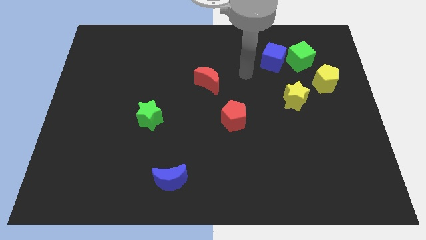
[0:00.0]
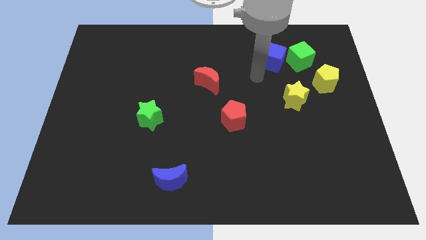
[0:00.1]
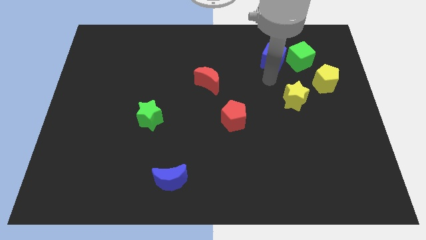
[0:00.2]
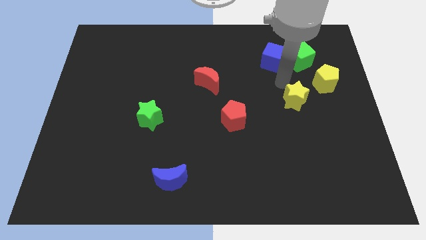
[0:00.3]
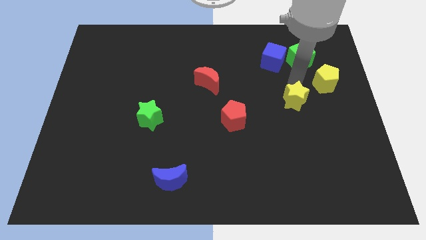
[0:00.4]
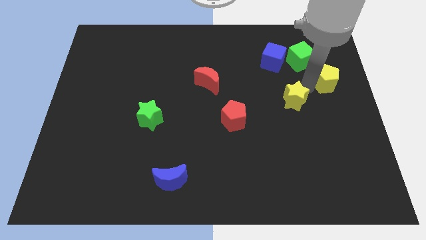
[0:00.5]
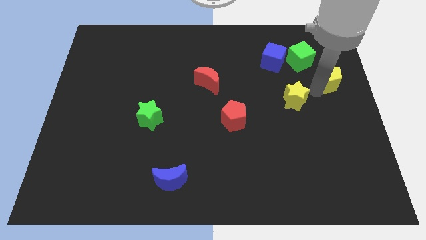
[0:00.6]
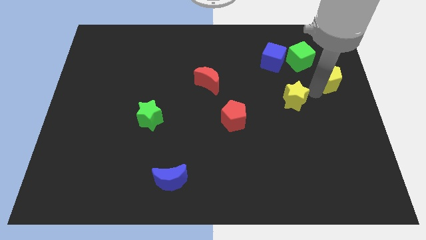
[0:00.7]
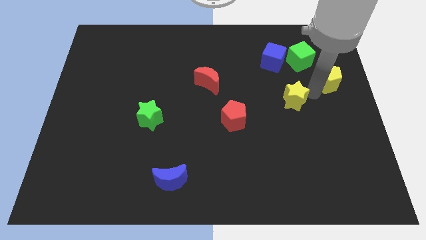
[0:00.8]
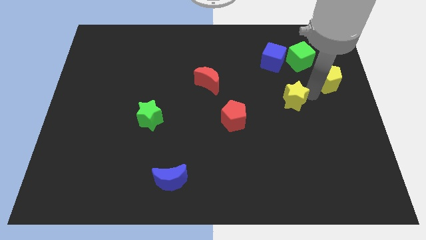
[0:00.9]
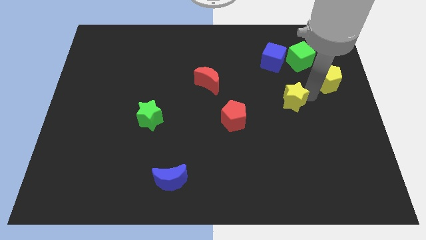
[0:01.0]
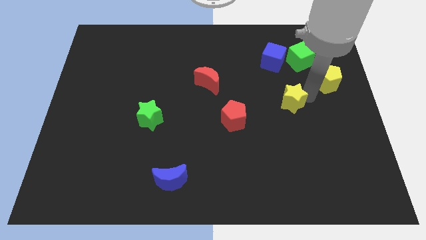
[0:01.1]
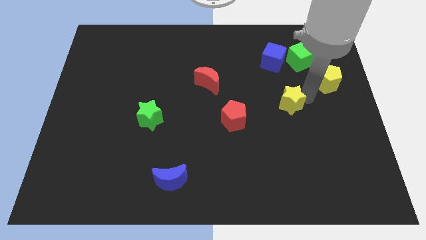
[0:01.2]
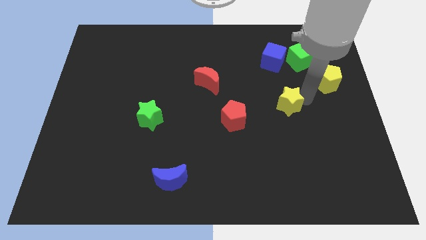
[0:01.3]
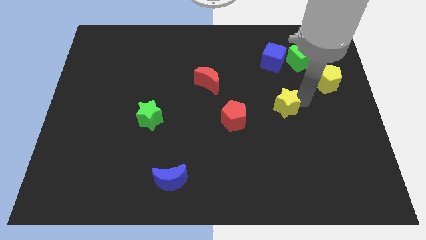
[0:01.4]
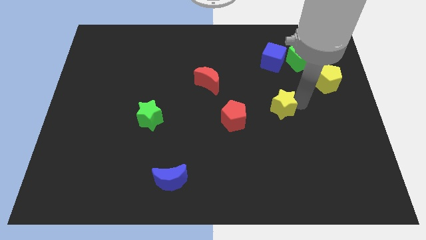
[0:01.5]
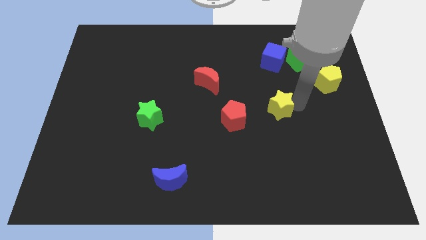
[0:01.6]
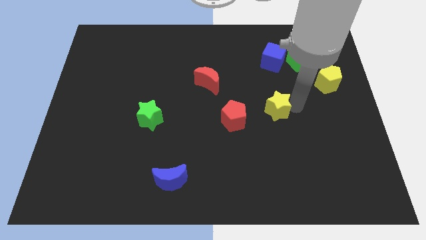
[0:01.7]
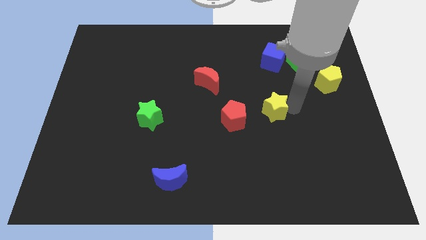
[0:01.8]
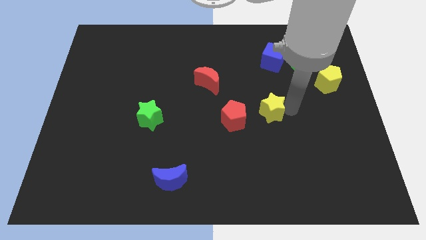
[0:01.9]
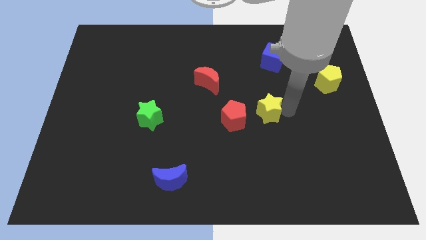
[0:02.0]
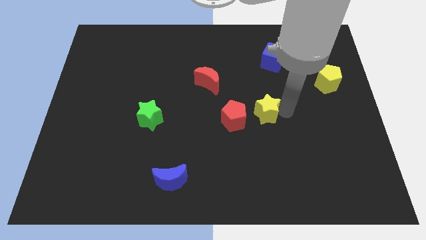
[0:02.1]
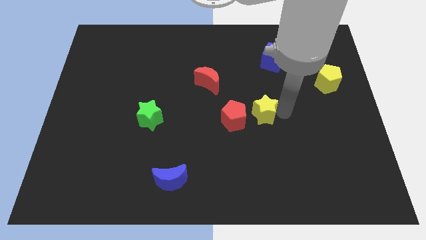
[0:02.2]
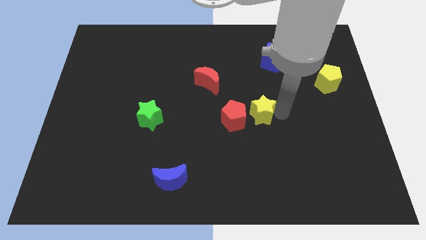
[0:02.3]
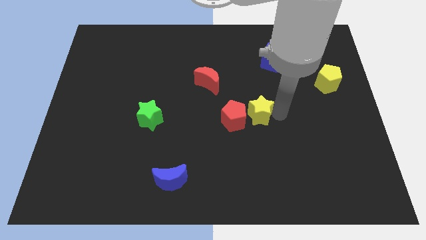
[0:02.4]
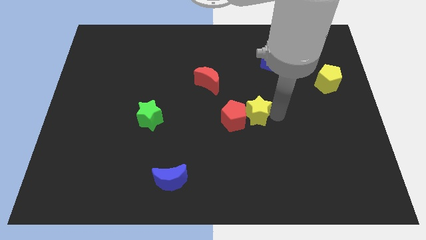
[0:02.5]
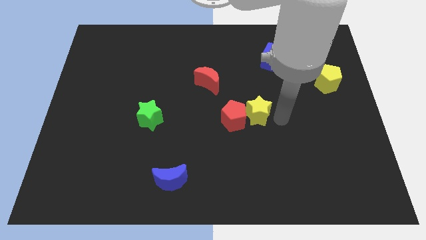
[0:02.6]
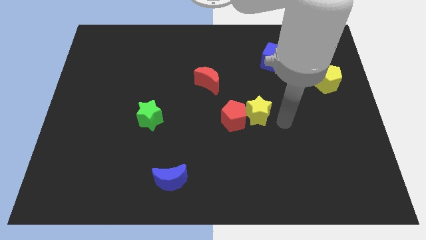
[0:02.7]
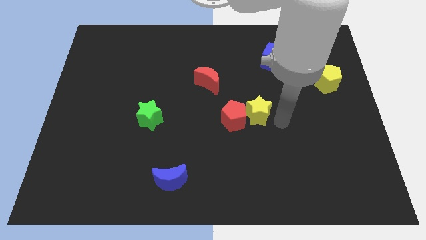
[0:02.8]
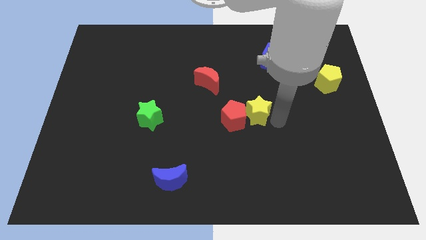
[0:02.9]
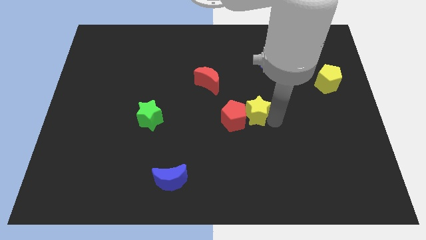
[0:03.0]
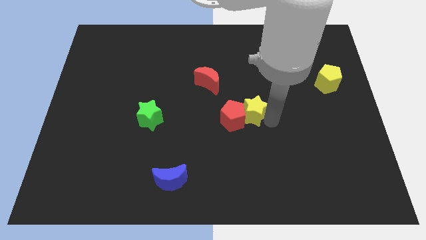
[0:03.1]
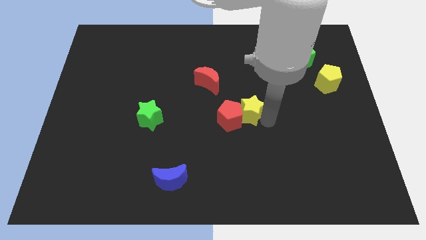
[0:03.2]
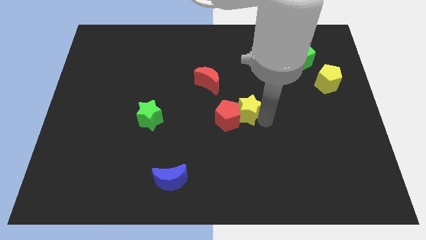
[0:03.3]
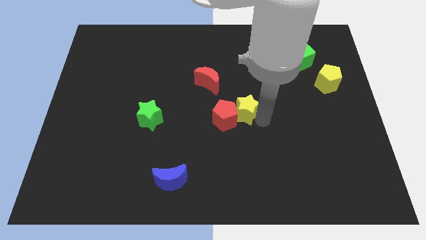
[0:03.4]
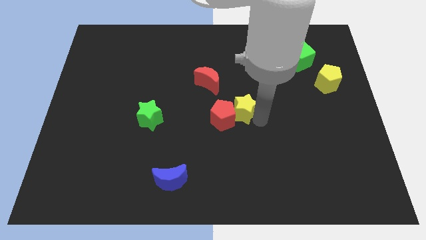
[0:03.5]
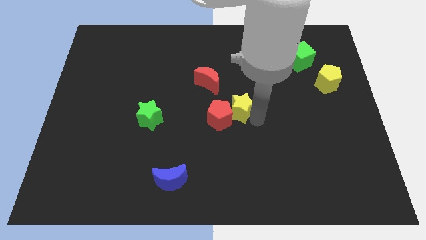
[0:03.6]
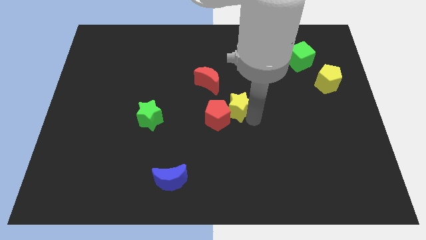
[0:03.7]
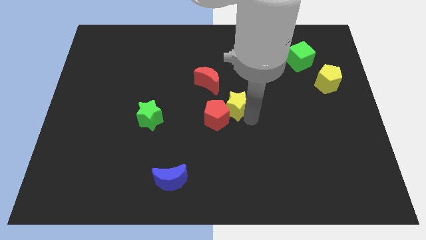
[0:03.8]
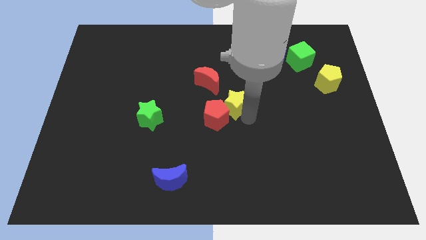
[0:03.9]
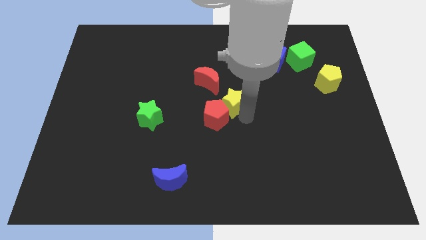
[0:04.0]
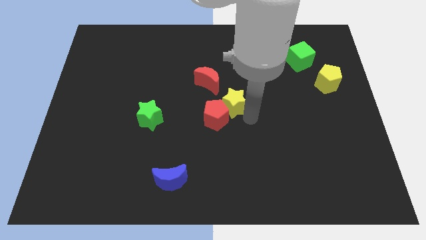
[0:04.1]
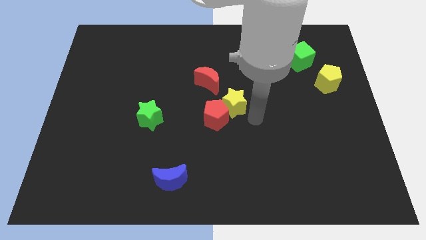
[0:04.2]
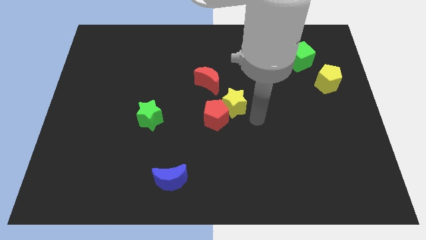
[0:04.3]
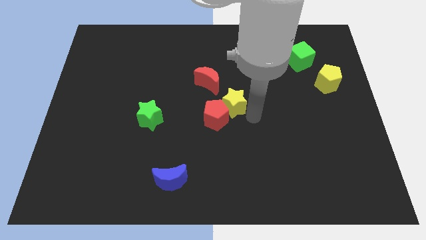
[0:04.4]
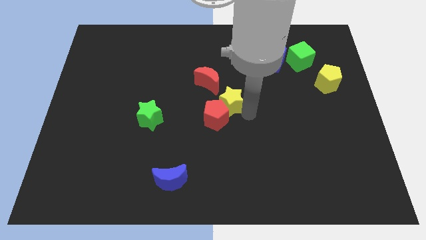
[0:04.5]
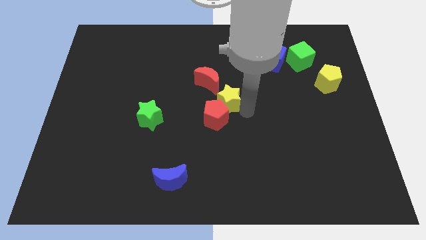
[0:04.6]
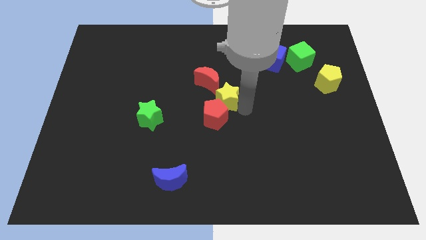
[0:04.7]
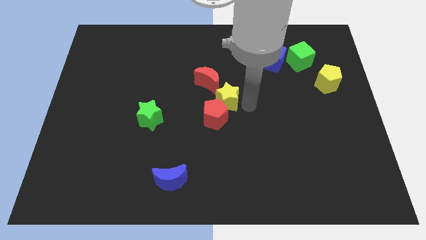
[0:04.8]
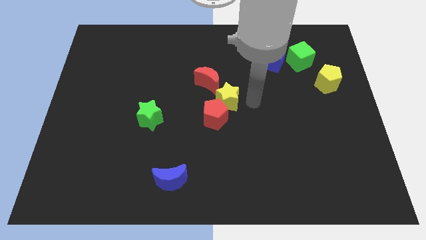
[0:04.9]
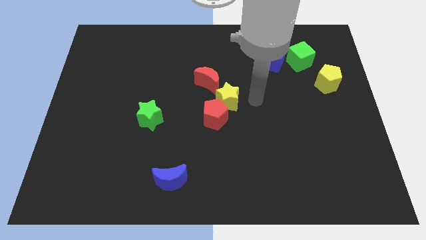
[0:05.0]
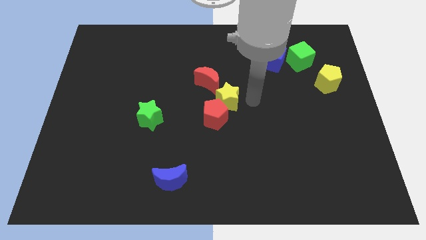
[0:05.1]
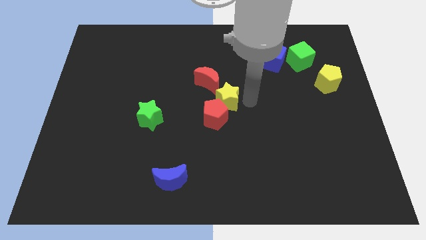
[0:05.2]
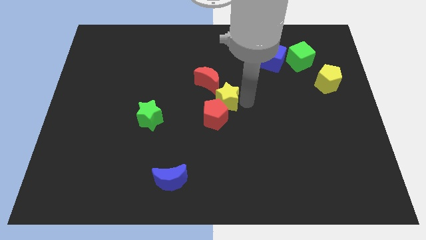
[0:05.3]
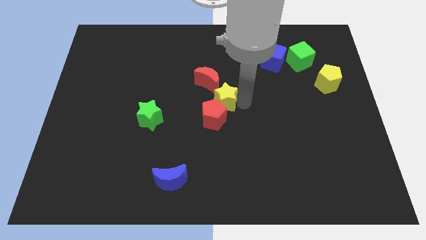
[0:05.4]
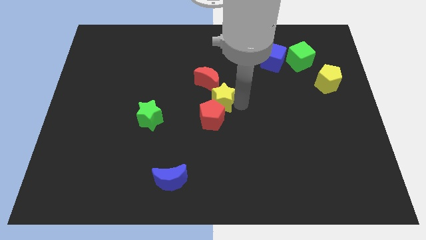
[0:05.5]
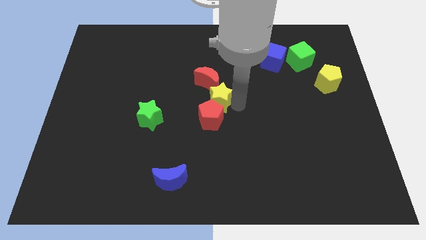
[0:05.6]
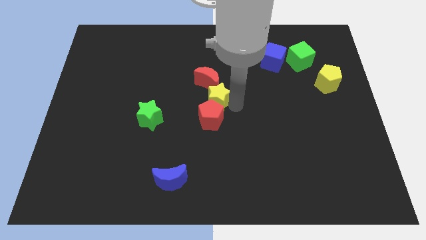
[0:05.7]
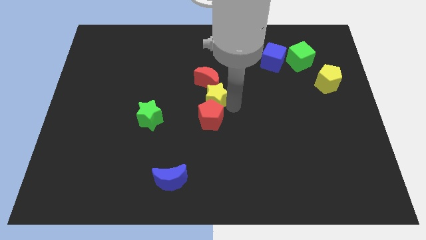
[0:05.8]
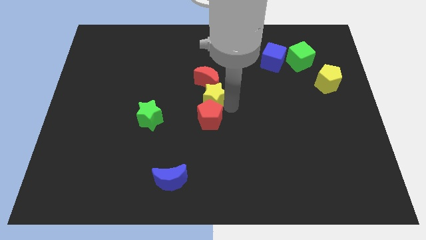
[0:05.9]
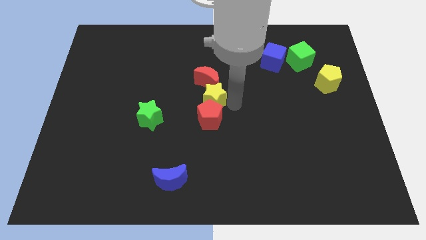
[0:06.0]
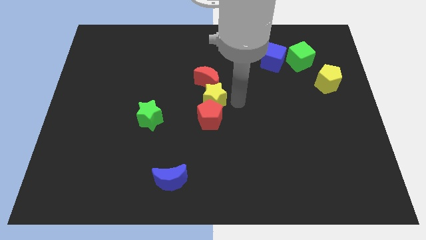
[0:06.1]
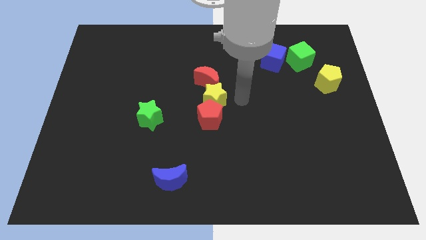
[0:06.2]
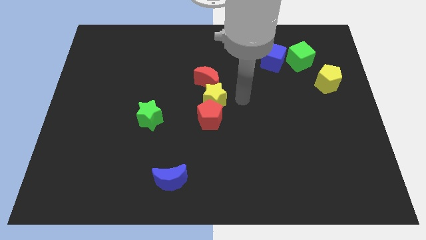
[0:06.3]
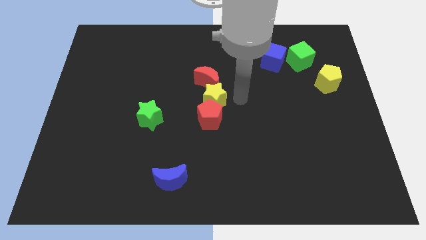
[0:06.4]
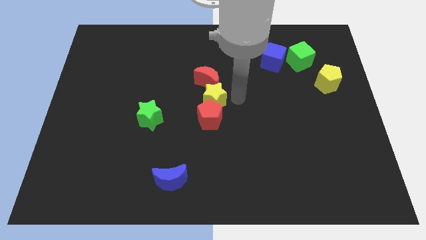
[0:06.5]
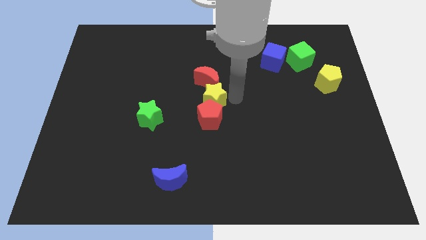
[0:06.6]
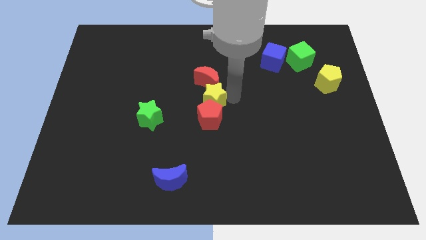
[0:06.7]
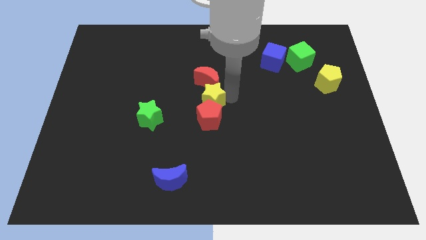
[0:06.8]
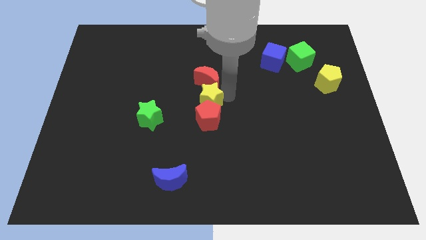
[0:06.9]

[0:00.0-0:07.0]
slide the yellow star left

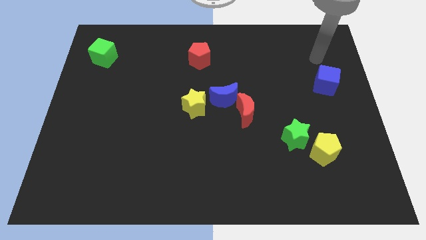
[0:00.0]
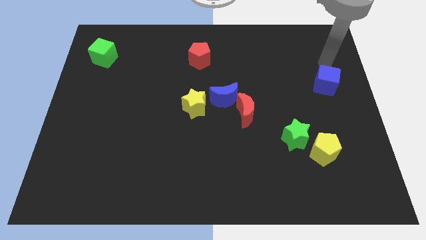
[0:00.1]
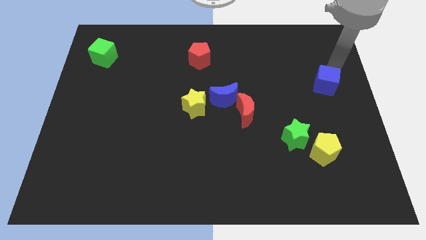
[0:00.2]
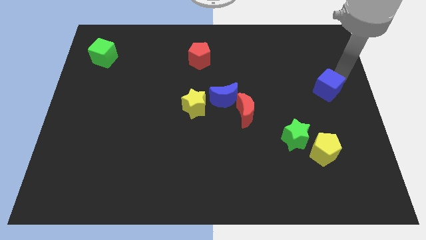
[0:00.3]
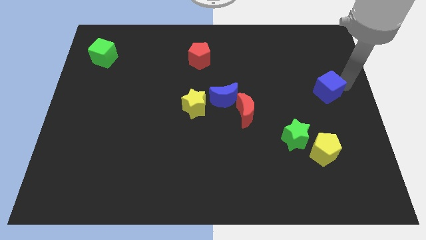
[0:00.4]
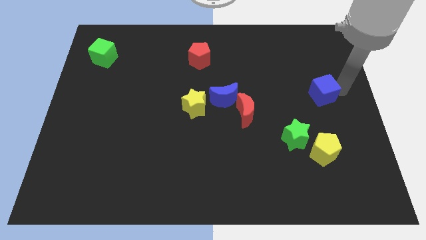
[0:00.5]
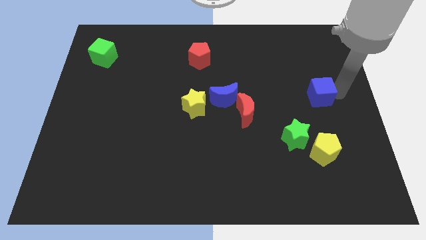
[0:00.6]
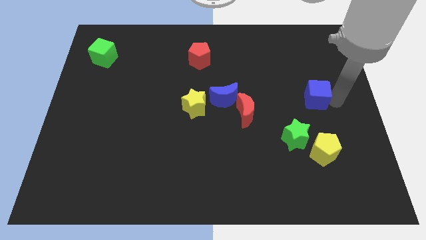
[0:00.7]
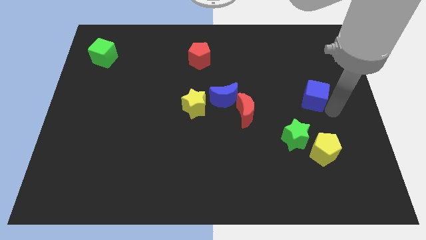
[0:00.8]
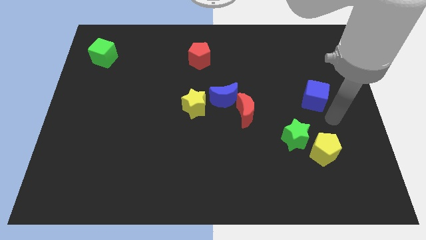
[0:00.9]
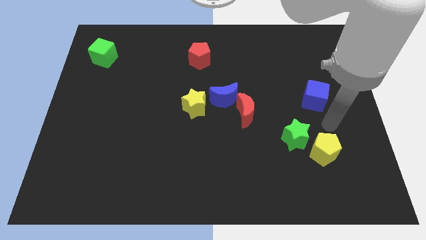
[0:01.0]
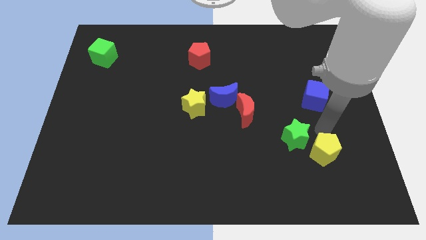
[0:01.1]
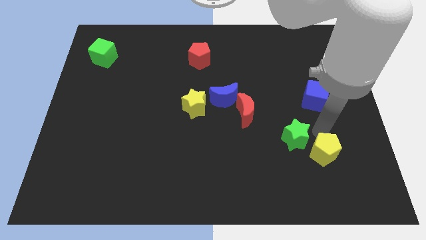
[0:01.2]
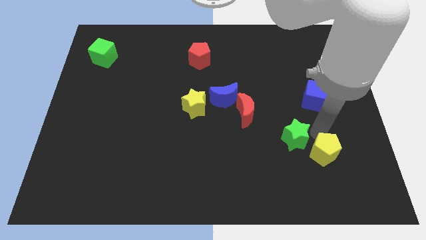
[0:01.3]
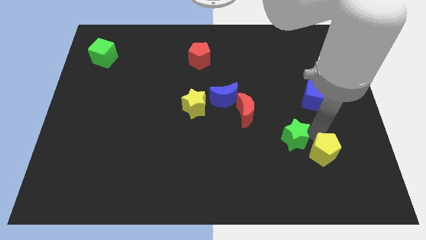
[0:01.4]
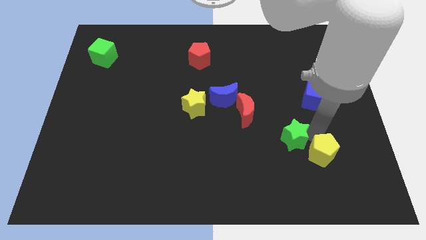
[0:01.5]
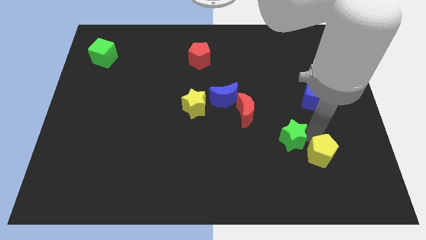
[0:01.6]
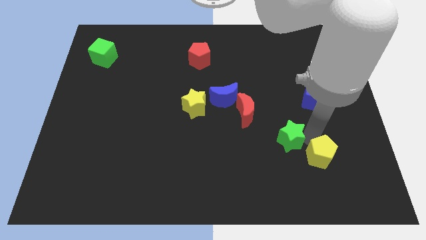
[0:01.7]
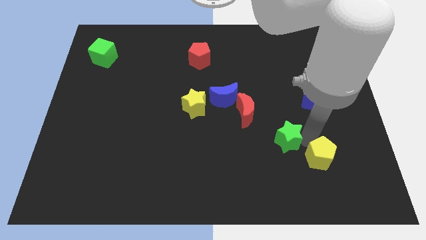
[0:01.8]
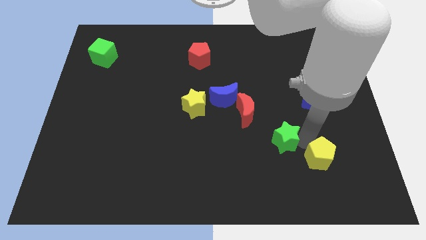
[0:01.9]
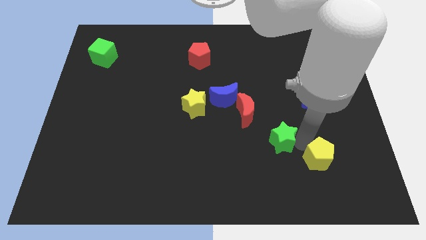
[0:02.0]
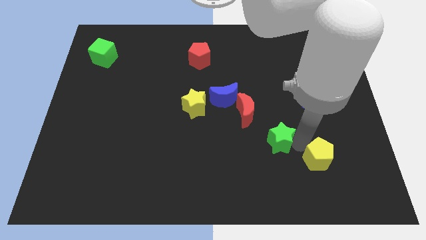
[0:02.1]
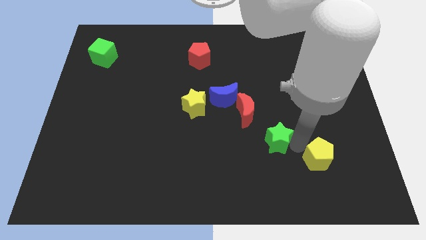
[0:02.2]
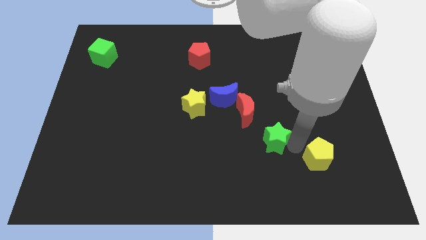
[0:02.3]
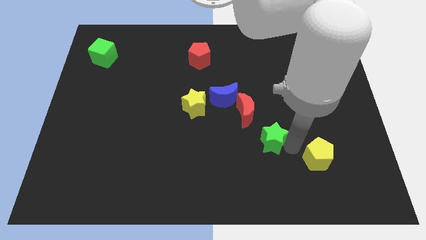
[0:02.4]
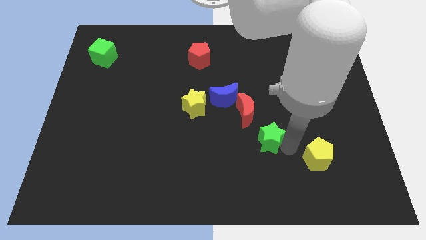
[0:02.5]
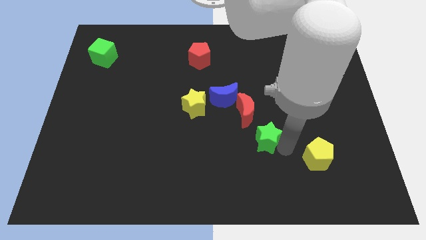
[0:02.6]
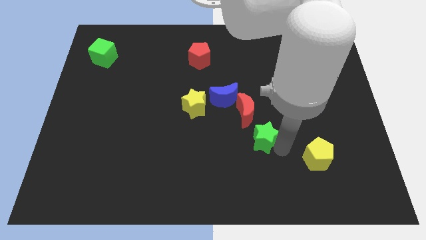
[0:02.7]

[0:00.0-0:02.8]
slightly push the green star left
